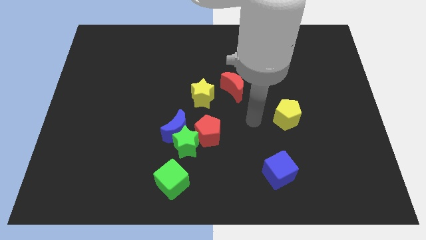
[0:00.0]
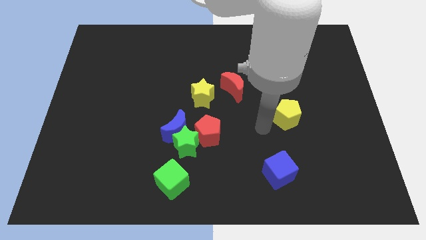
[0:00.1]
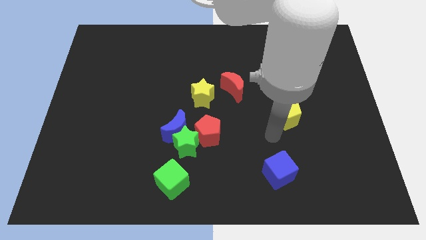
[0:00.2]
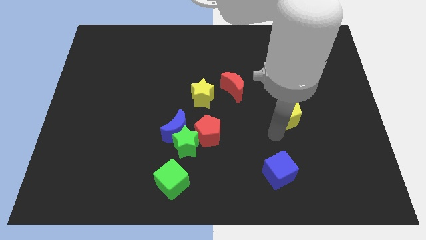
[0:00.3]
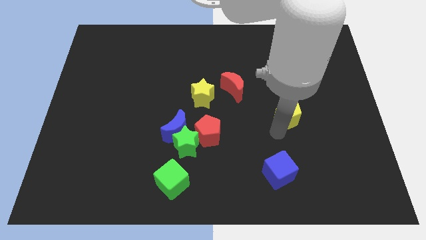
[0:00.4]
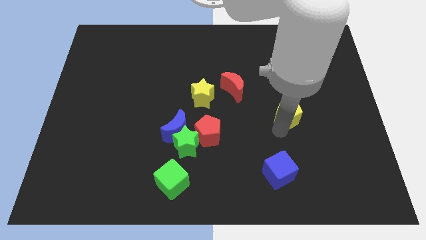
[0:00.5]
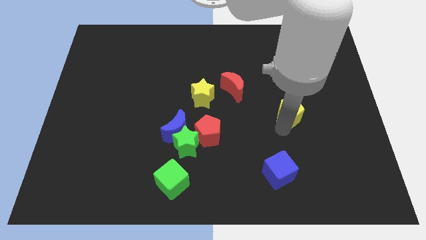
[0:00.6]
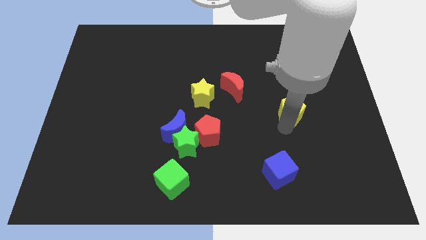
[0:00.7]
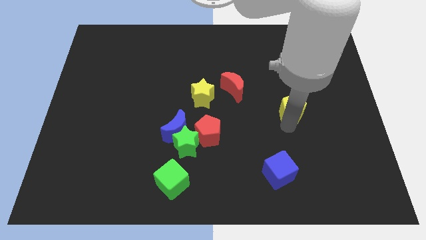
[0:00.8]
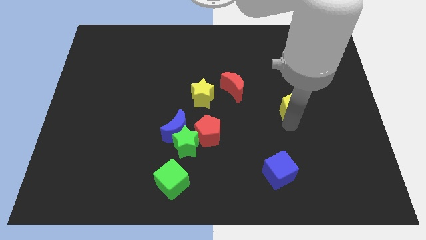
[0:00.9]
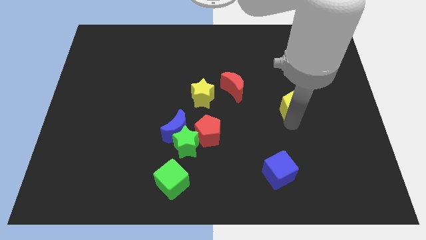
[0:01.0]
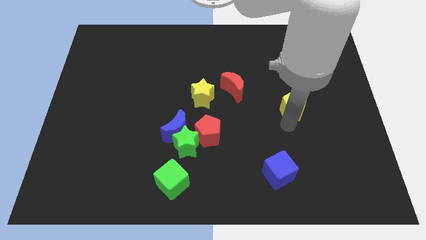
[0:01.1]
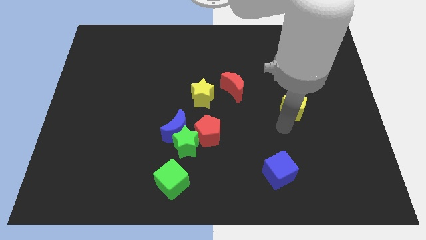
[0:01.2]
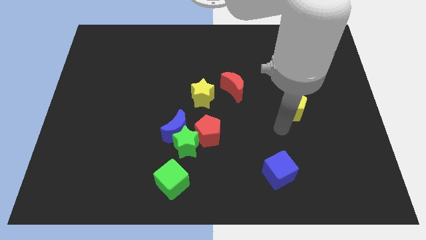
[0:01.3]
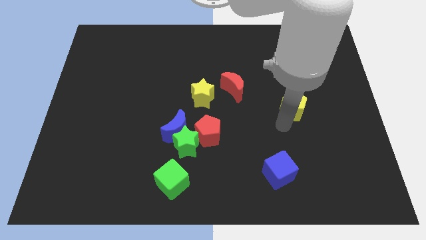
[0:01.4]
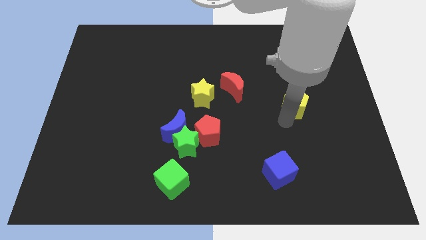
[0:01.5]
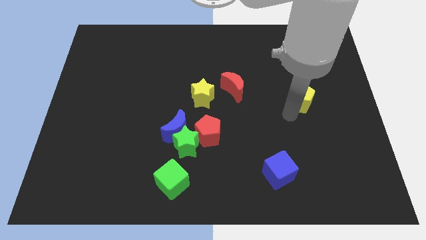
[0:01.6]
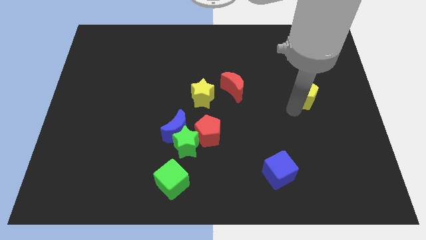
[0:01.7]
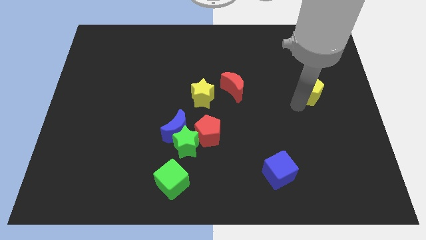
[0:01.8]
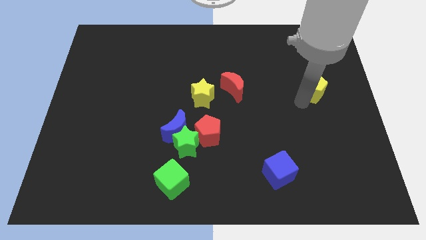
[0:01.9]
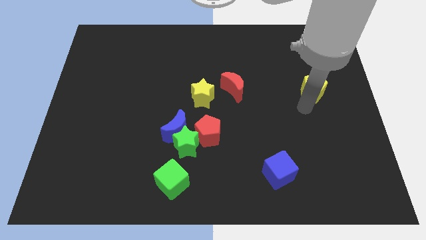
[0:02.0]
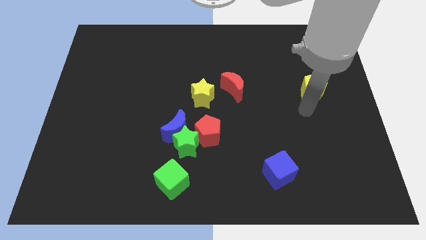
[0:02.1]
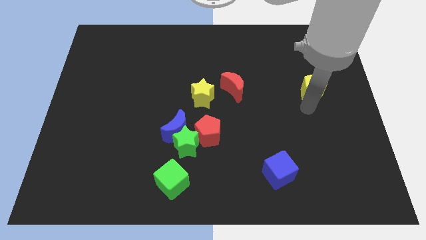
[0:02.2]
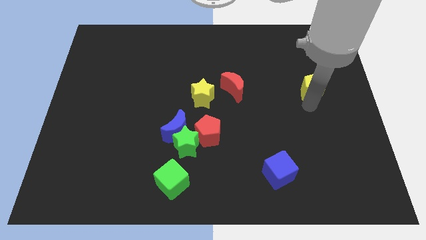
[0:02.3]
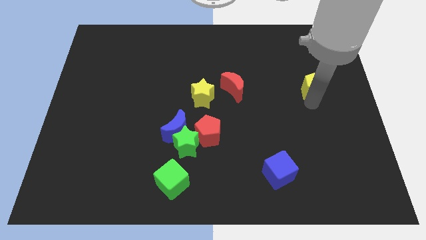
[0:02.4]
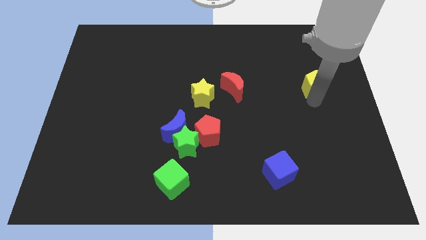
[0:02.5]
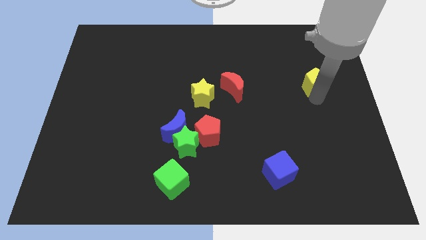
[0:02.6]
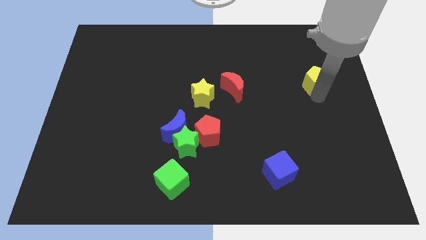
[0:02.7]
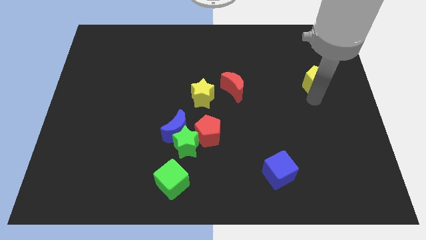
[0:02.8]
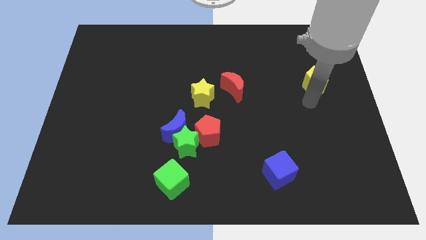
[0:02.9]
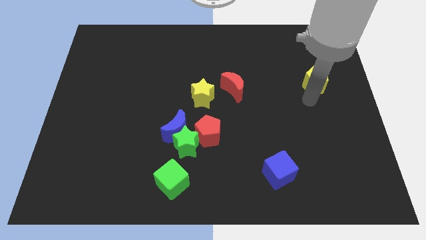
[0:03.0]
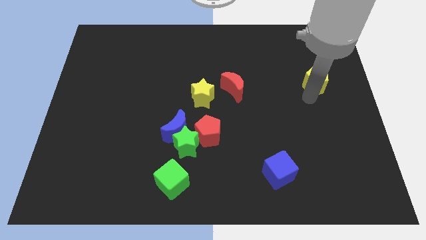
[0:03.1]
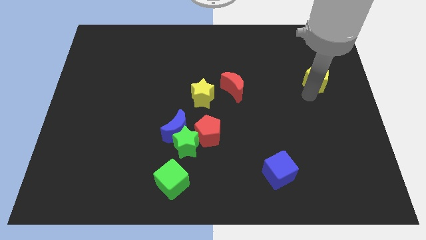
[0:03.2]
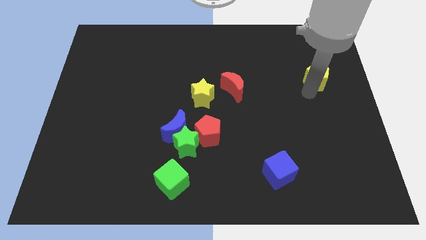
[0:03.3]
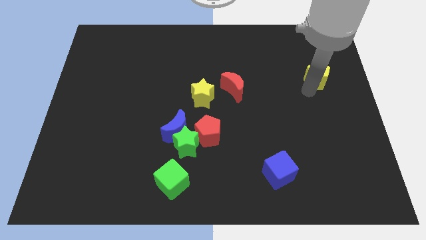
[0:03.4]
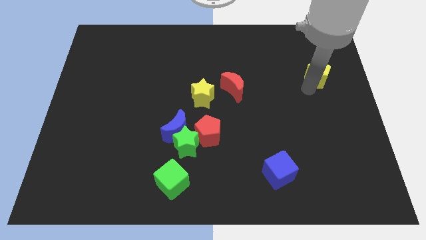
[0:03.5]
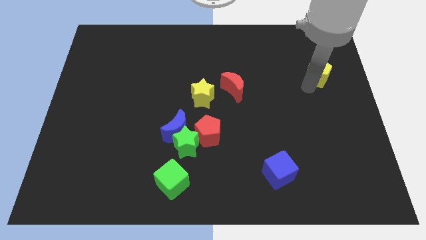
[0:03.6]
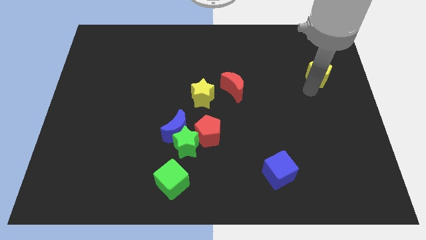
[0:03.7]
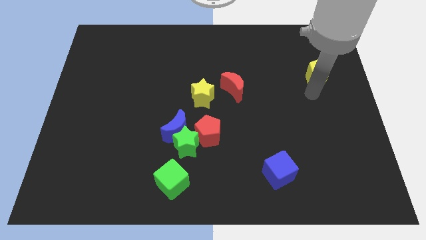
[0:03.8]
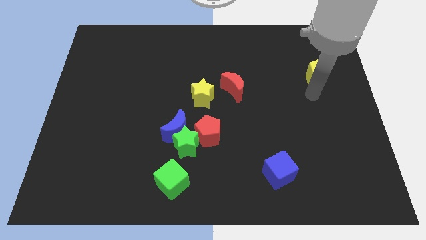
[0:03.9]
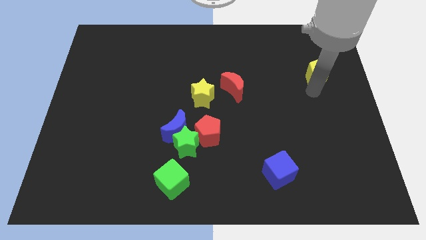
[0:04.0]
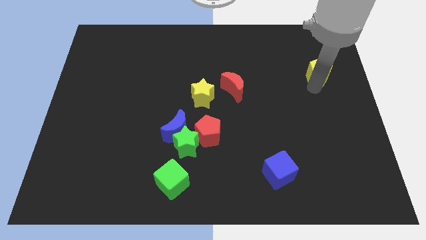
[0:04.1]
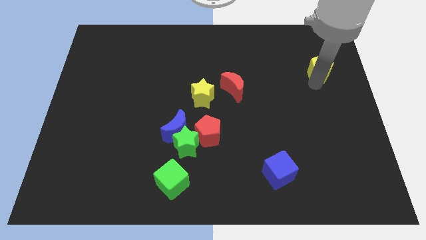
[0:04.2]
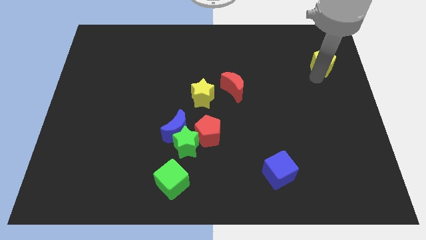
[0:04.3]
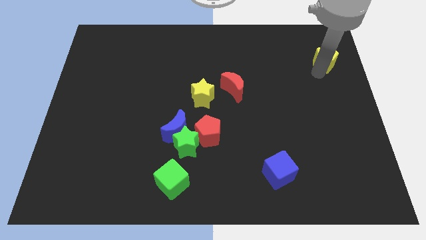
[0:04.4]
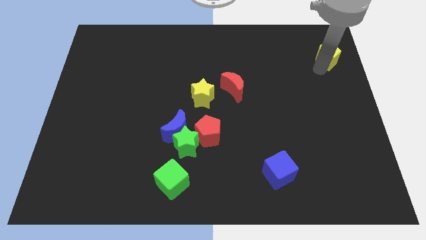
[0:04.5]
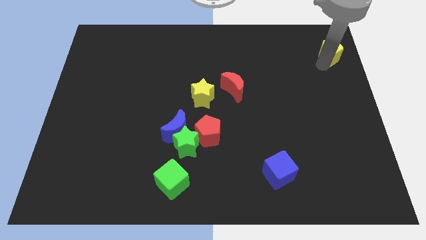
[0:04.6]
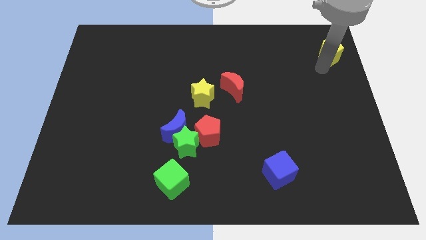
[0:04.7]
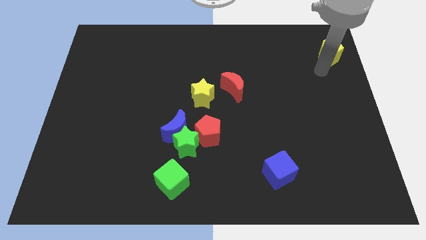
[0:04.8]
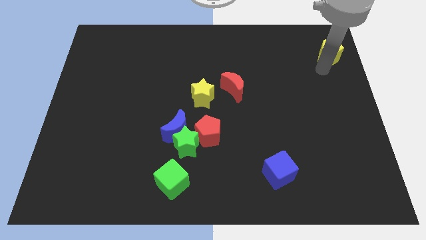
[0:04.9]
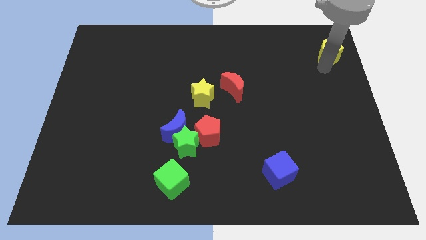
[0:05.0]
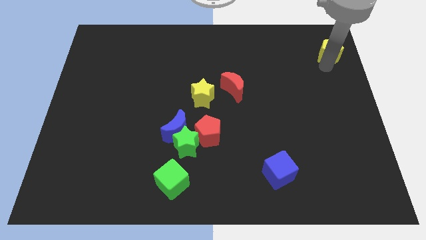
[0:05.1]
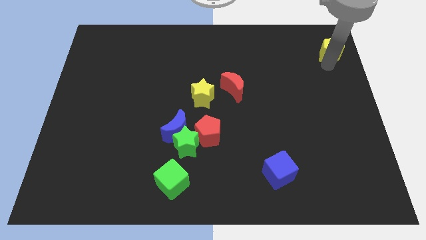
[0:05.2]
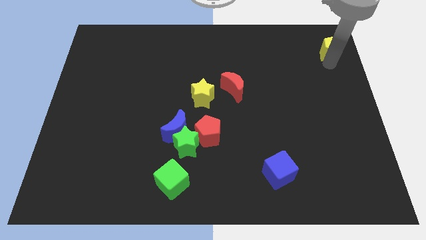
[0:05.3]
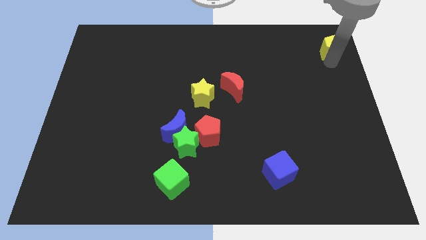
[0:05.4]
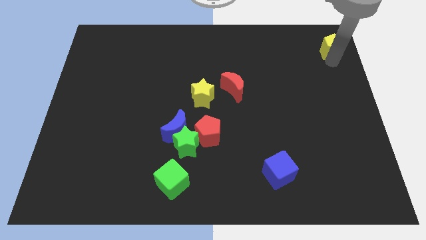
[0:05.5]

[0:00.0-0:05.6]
slide the yellow pentagon to the top right

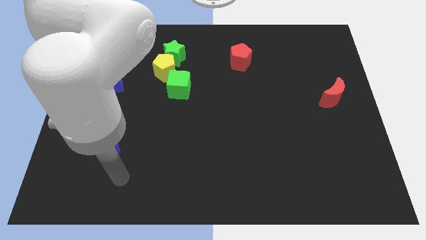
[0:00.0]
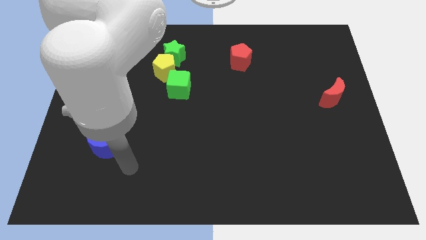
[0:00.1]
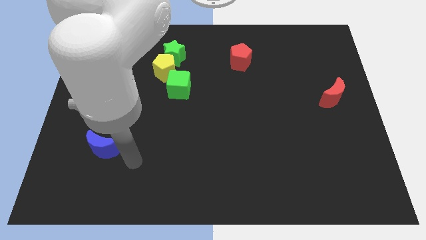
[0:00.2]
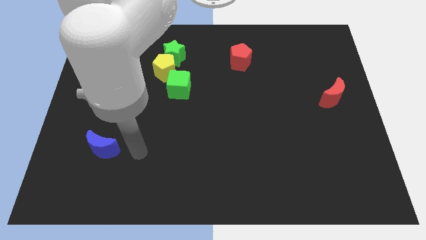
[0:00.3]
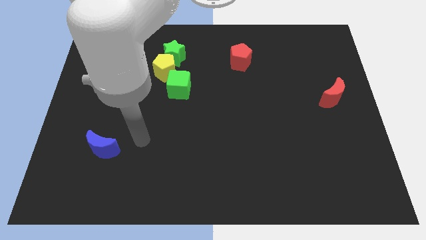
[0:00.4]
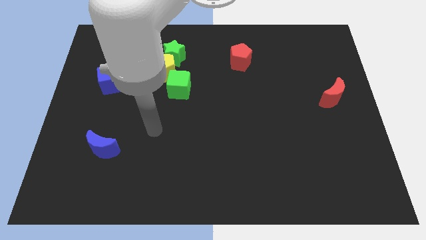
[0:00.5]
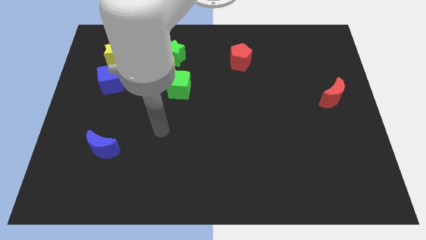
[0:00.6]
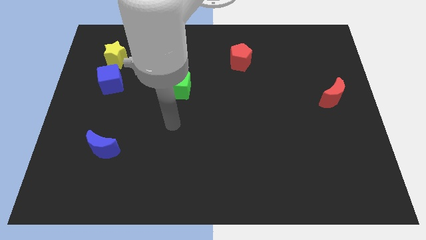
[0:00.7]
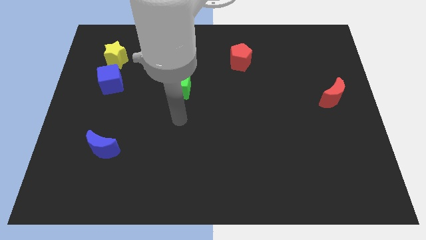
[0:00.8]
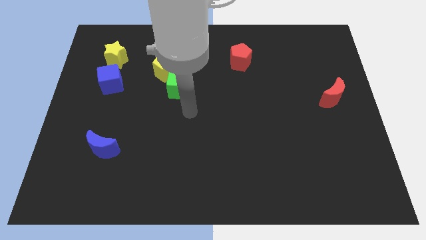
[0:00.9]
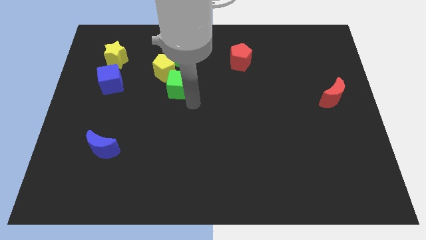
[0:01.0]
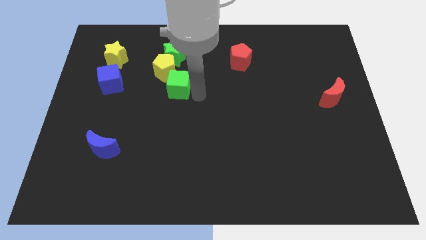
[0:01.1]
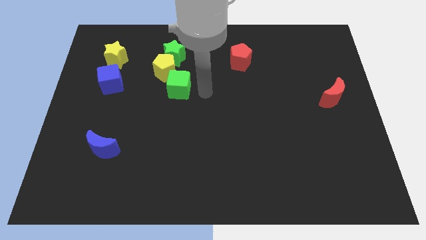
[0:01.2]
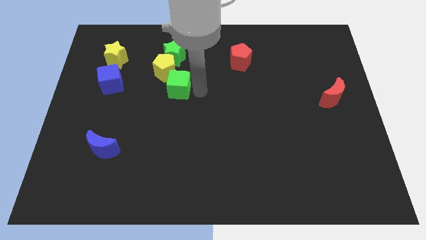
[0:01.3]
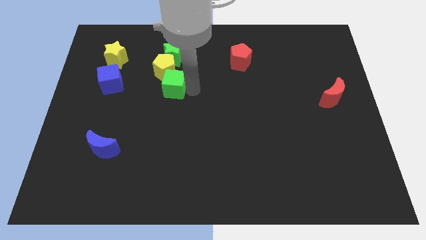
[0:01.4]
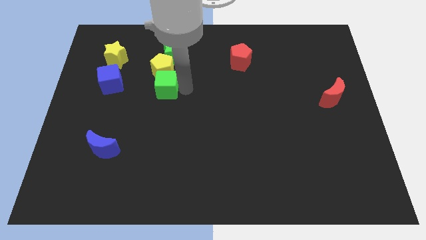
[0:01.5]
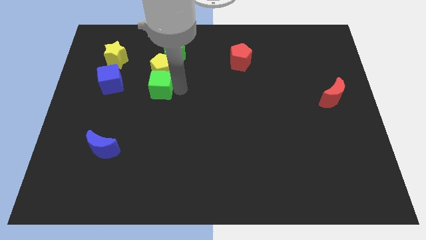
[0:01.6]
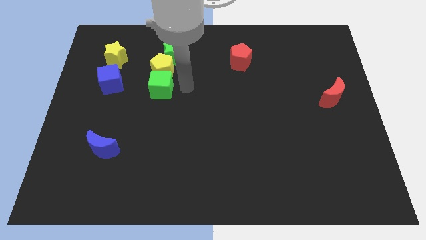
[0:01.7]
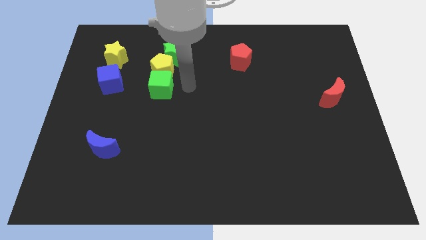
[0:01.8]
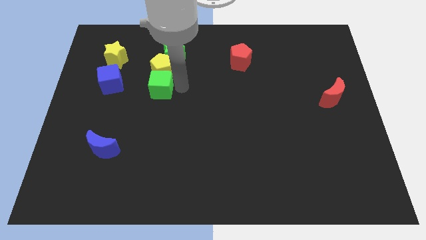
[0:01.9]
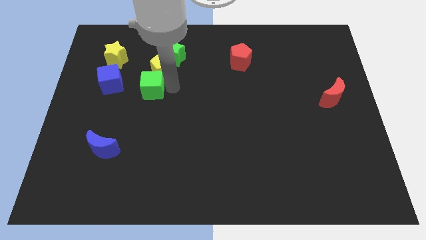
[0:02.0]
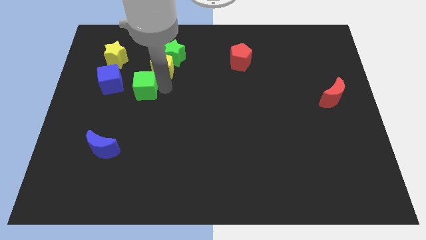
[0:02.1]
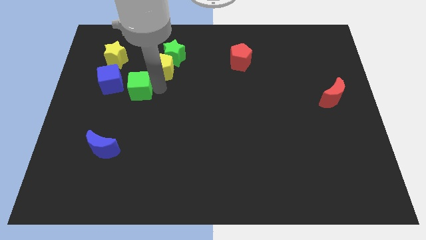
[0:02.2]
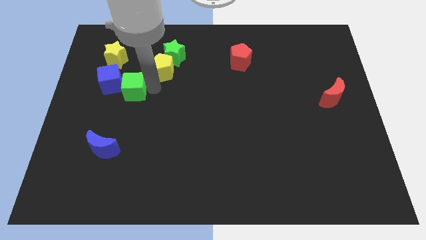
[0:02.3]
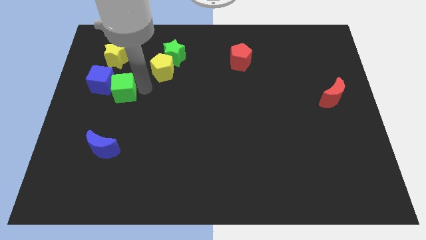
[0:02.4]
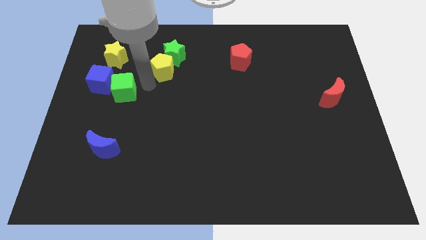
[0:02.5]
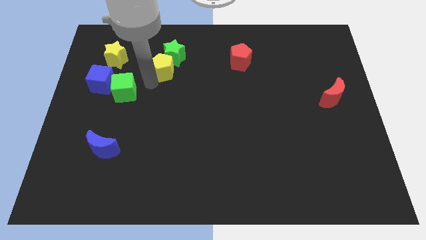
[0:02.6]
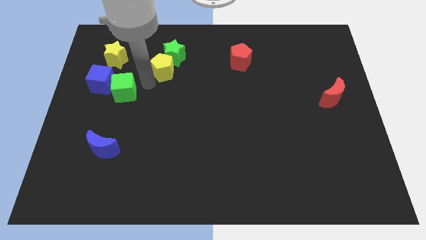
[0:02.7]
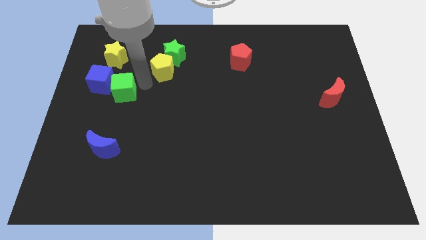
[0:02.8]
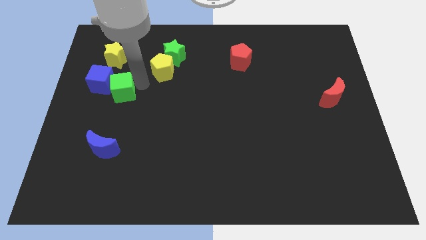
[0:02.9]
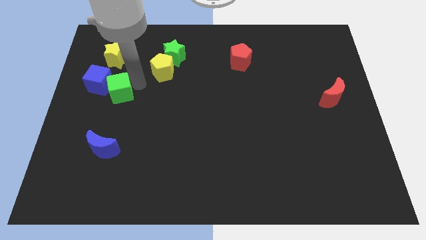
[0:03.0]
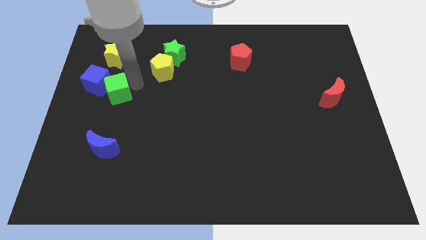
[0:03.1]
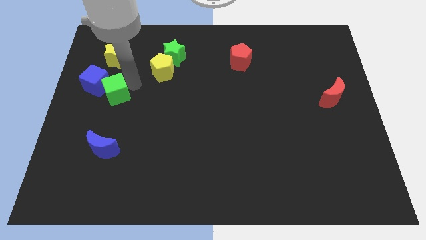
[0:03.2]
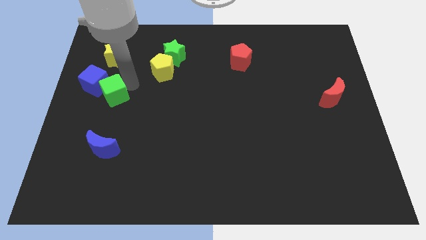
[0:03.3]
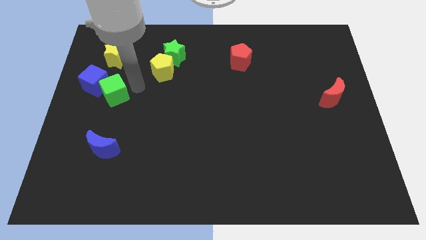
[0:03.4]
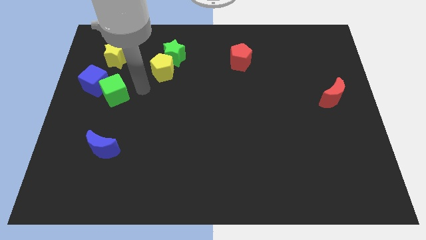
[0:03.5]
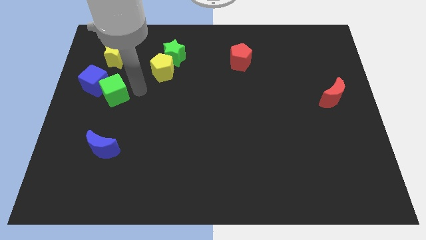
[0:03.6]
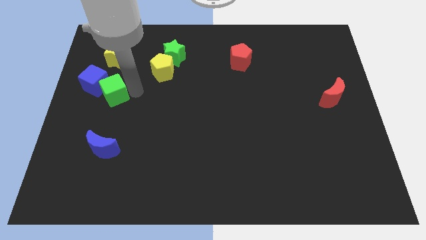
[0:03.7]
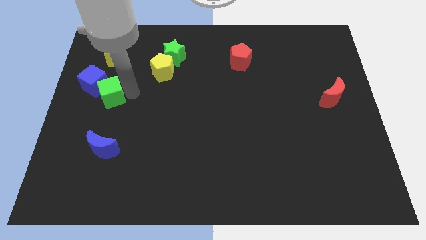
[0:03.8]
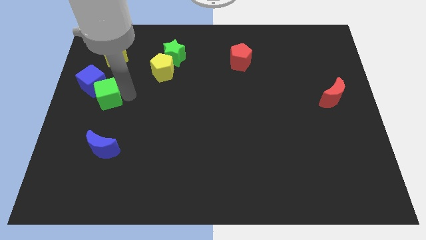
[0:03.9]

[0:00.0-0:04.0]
slide the green cube to the left side
